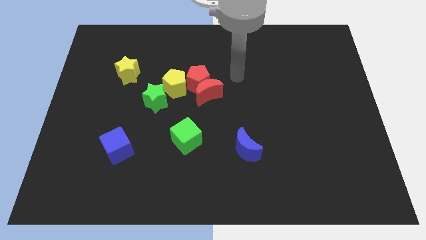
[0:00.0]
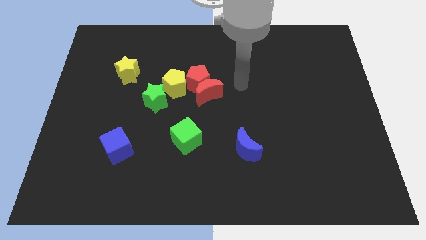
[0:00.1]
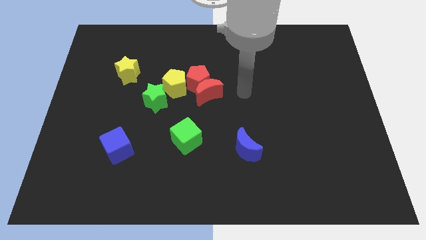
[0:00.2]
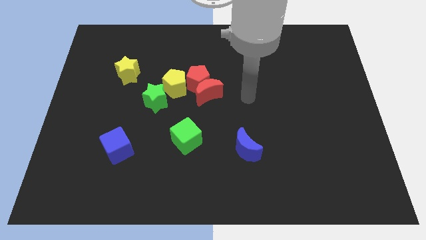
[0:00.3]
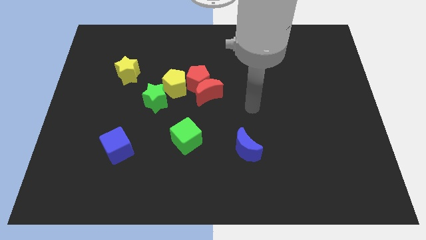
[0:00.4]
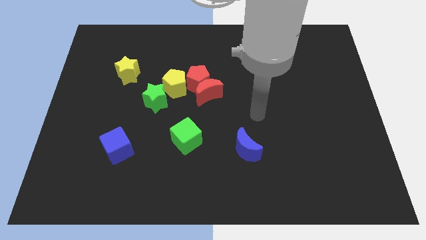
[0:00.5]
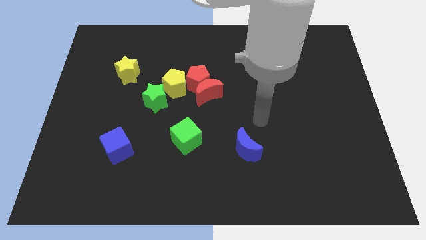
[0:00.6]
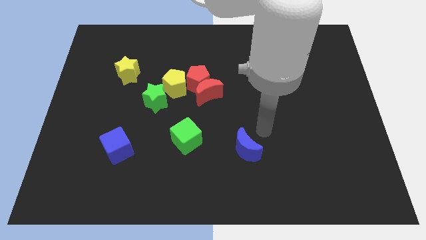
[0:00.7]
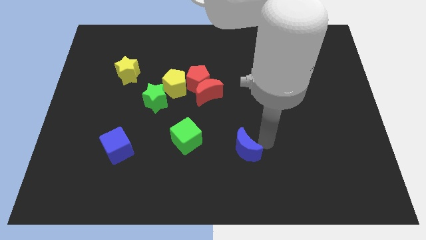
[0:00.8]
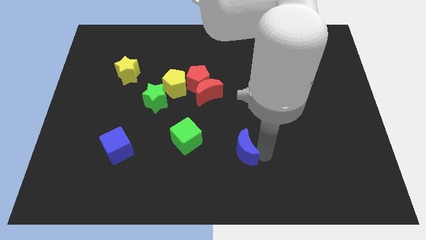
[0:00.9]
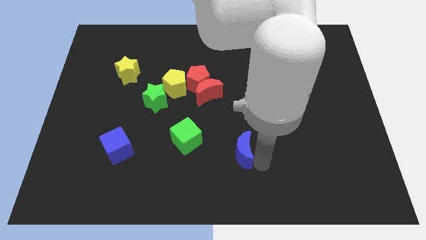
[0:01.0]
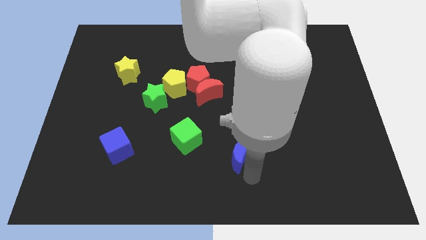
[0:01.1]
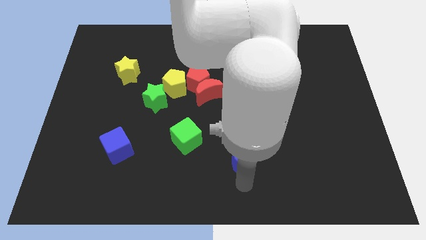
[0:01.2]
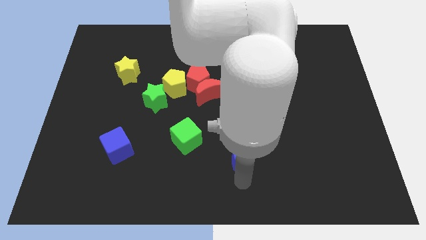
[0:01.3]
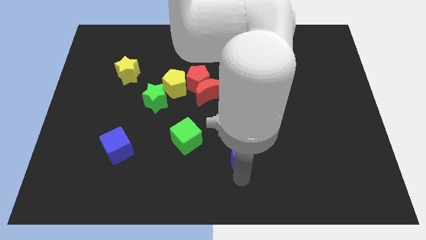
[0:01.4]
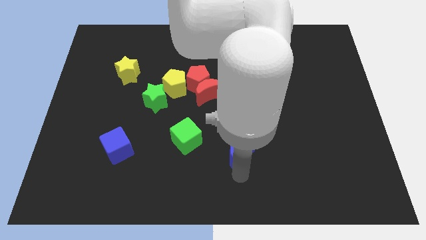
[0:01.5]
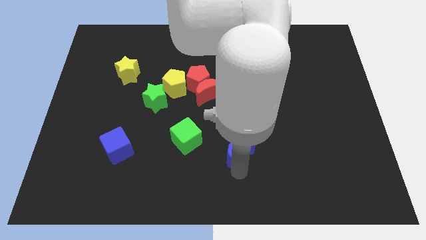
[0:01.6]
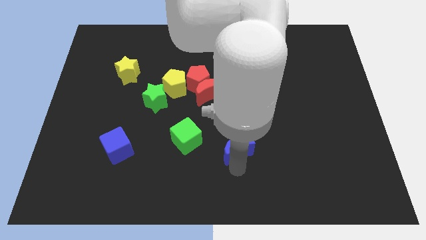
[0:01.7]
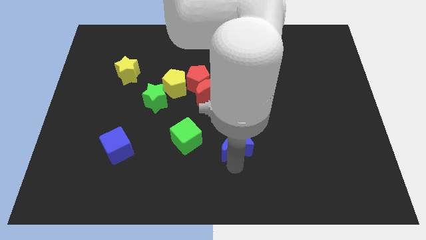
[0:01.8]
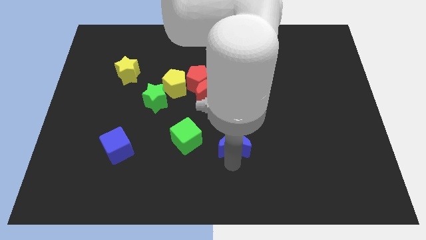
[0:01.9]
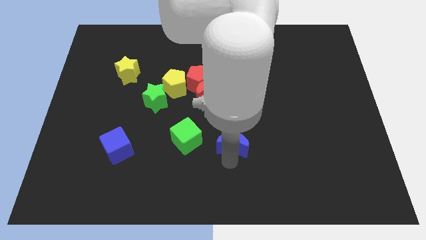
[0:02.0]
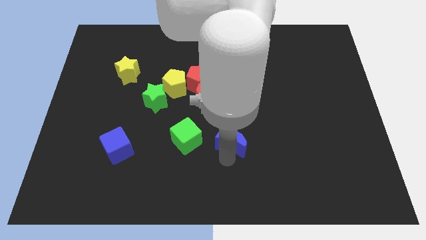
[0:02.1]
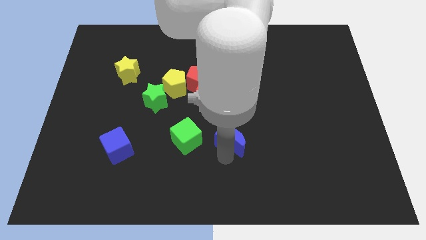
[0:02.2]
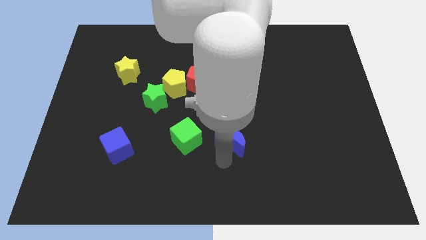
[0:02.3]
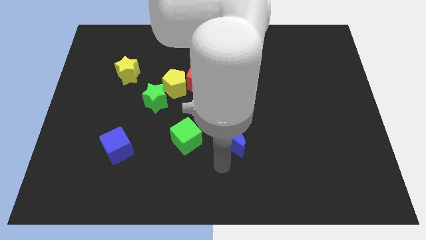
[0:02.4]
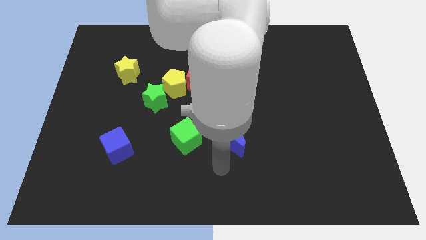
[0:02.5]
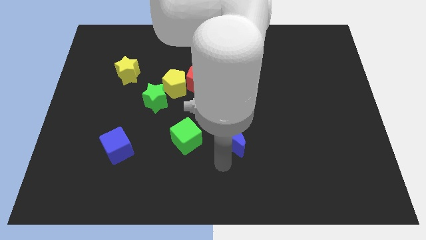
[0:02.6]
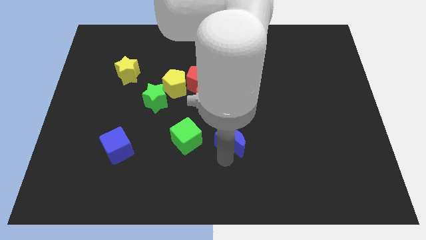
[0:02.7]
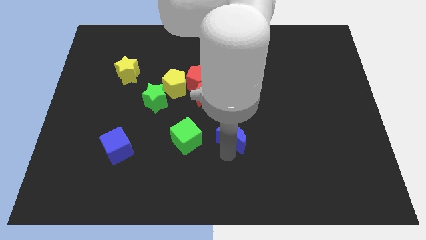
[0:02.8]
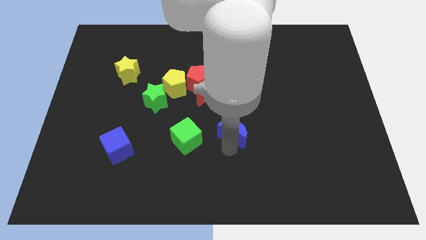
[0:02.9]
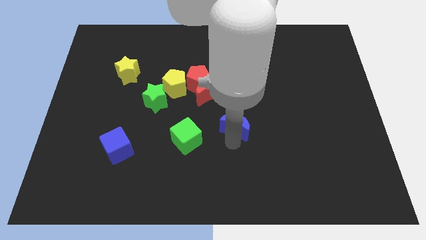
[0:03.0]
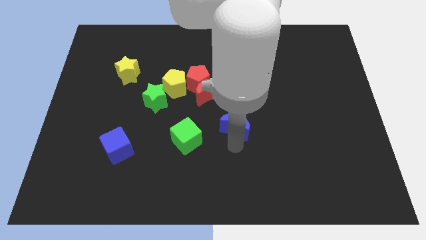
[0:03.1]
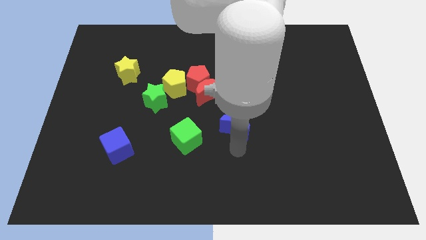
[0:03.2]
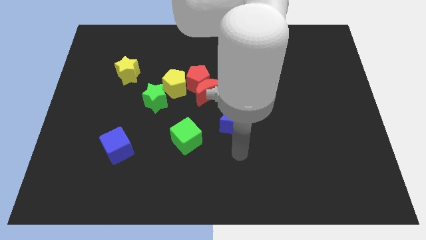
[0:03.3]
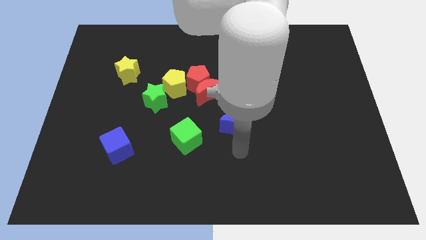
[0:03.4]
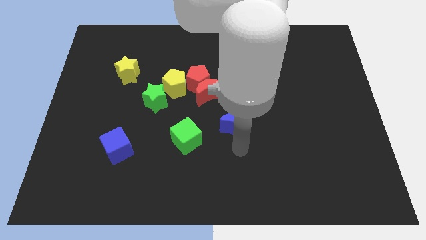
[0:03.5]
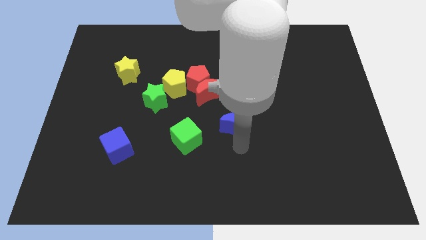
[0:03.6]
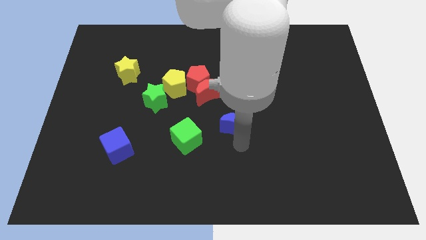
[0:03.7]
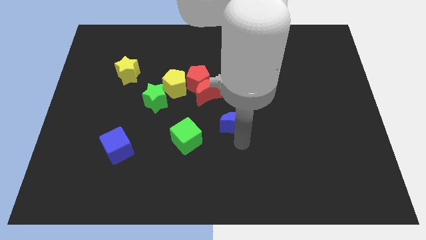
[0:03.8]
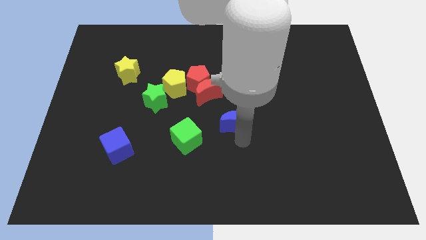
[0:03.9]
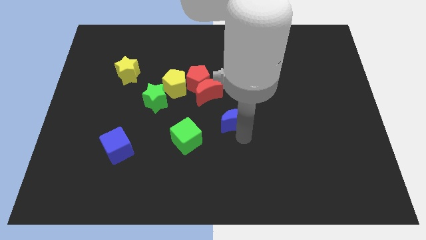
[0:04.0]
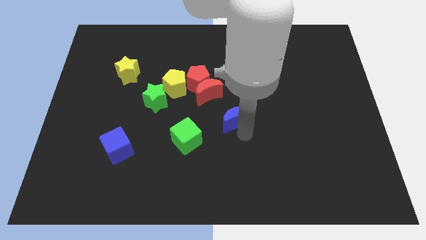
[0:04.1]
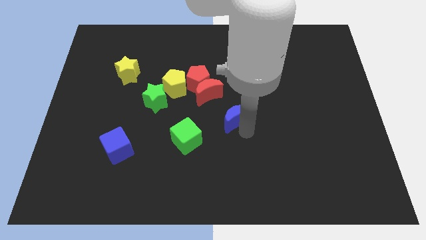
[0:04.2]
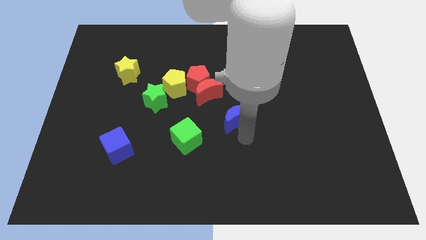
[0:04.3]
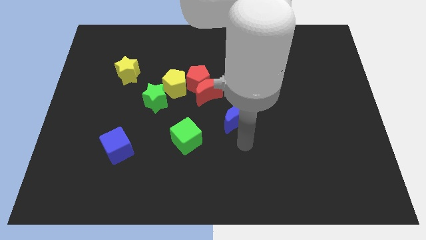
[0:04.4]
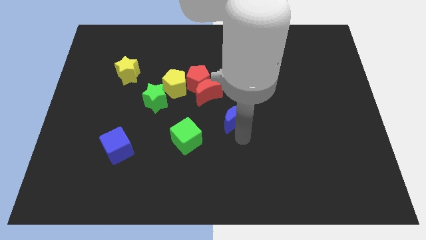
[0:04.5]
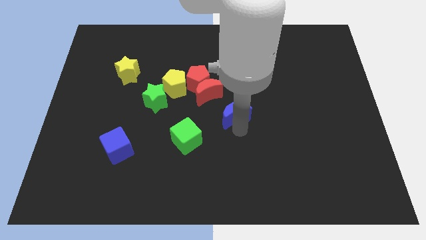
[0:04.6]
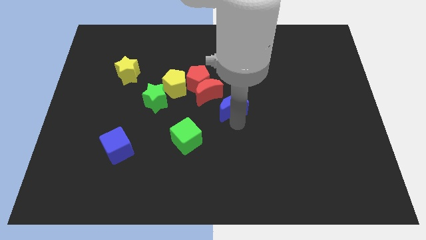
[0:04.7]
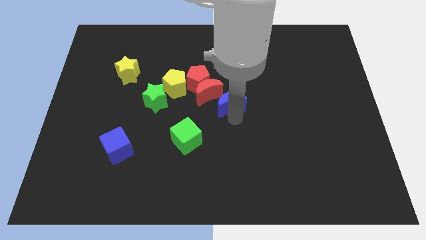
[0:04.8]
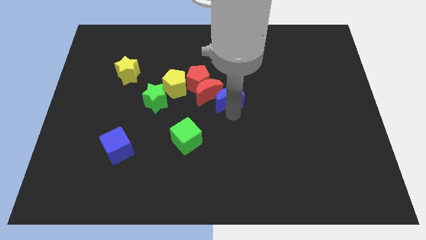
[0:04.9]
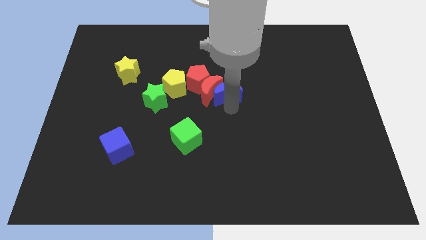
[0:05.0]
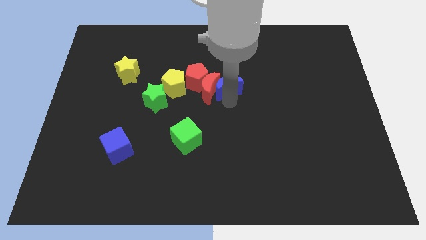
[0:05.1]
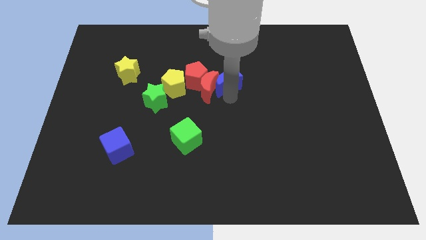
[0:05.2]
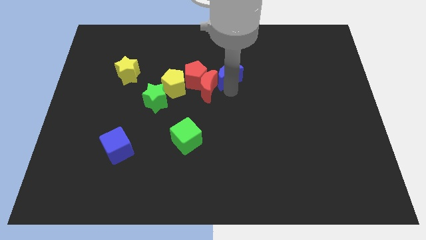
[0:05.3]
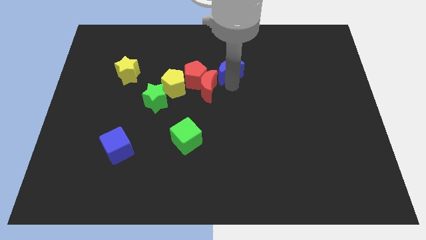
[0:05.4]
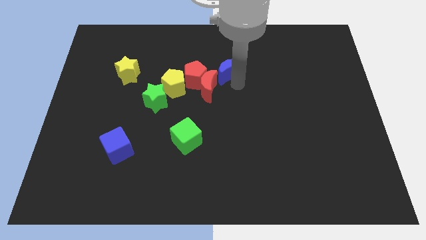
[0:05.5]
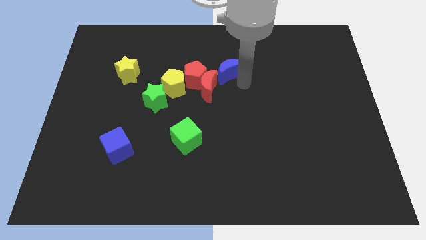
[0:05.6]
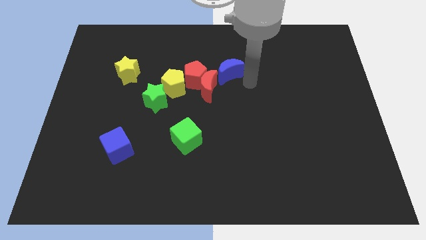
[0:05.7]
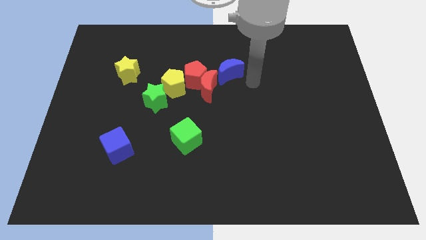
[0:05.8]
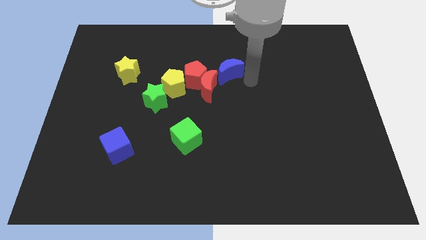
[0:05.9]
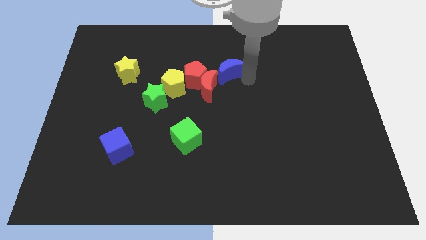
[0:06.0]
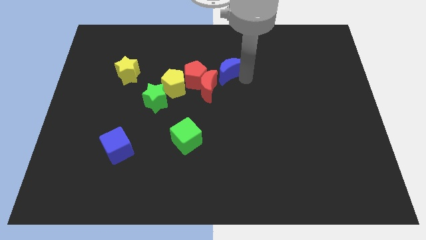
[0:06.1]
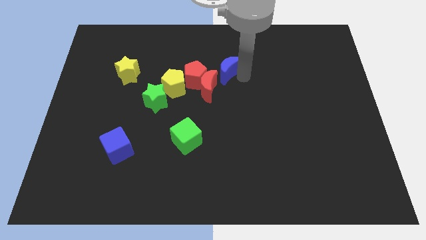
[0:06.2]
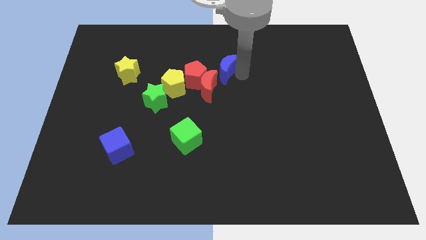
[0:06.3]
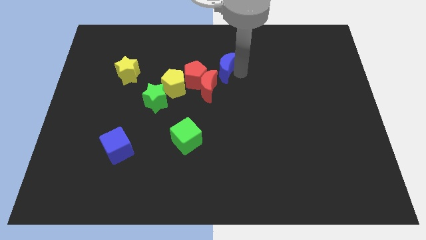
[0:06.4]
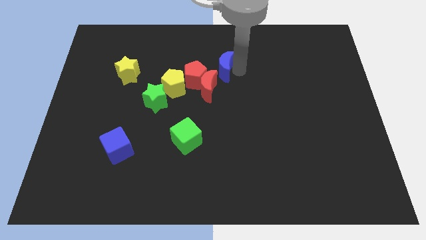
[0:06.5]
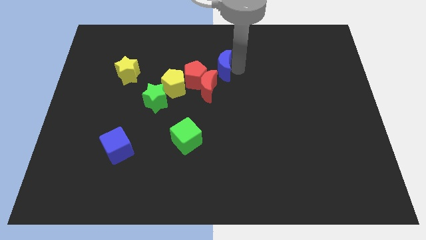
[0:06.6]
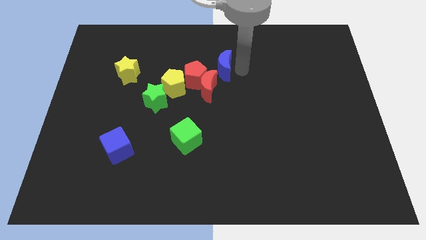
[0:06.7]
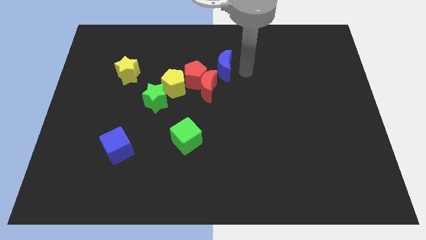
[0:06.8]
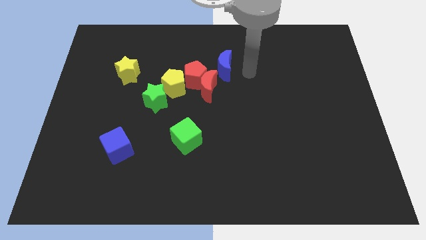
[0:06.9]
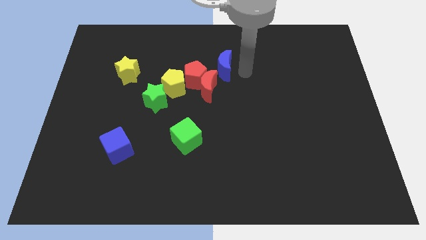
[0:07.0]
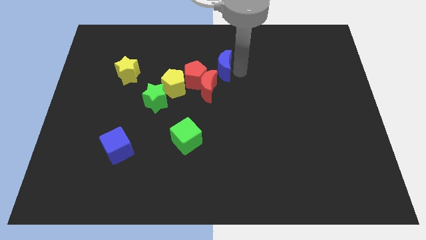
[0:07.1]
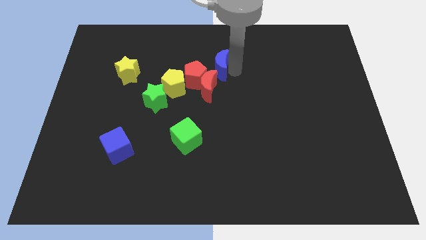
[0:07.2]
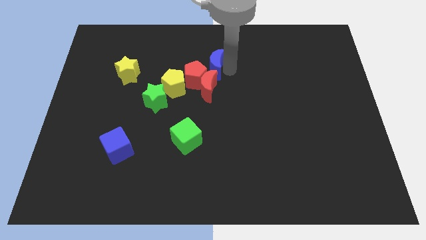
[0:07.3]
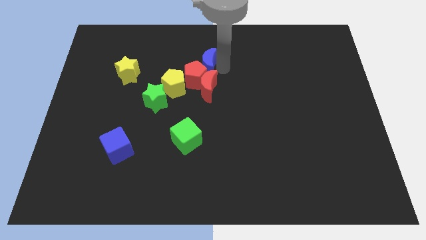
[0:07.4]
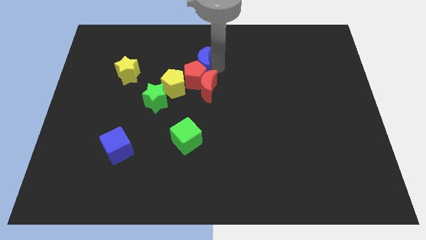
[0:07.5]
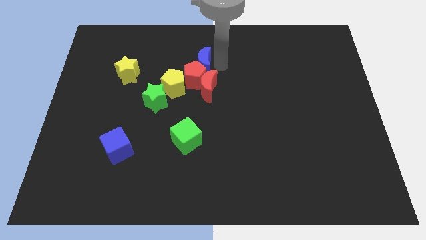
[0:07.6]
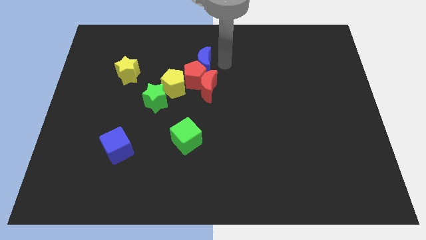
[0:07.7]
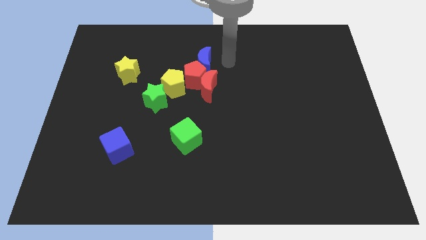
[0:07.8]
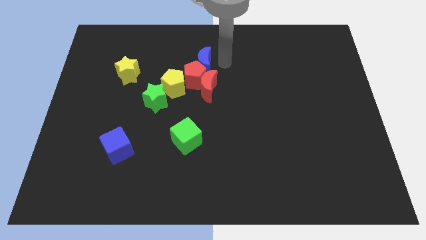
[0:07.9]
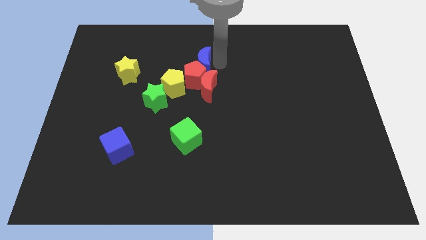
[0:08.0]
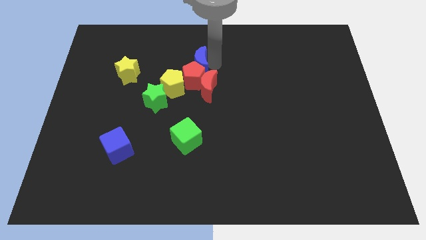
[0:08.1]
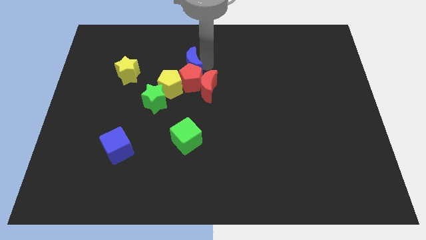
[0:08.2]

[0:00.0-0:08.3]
move the blue moon upwards and then left
